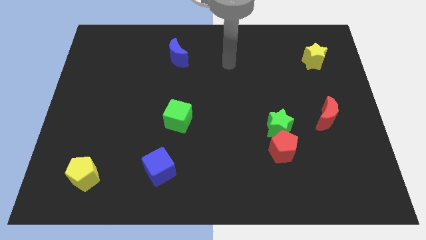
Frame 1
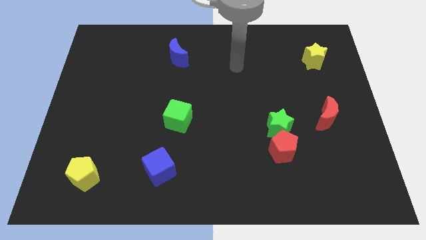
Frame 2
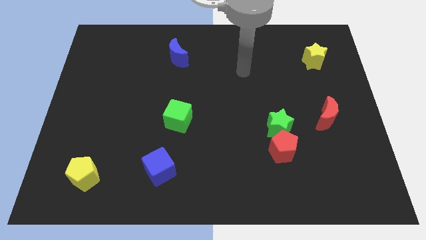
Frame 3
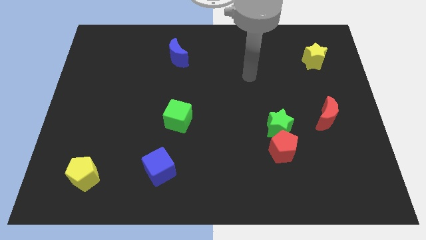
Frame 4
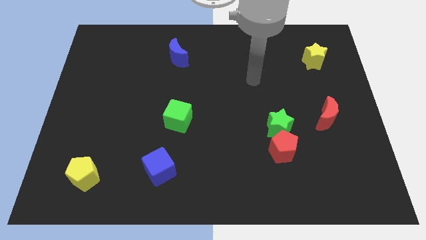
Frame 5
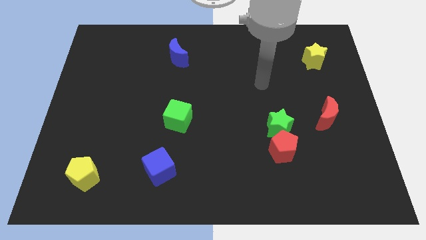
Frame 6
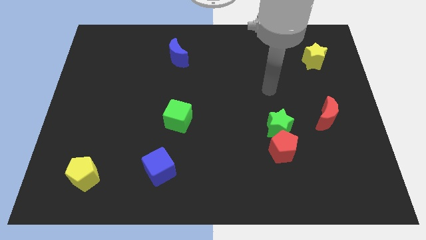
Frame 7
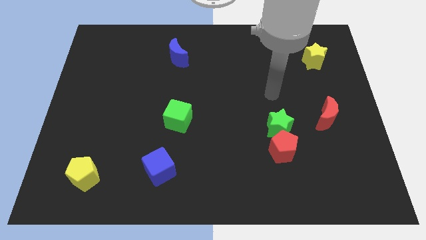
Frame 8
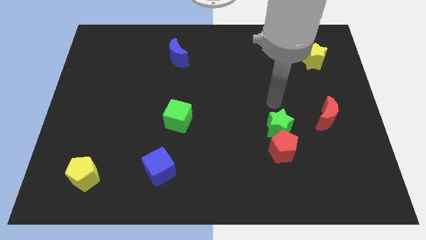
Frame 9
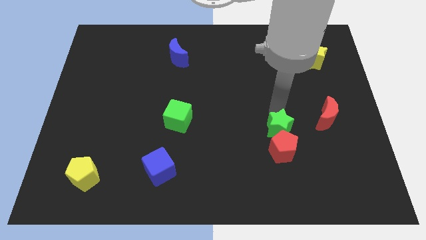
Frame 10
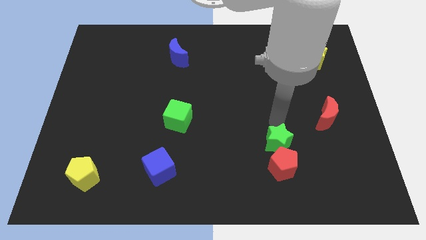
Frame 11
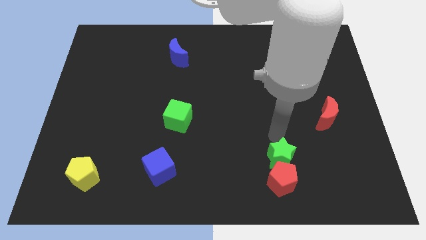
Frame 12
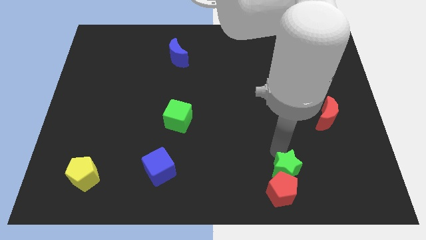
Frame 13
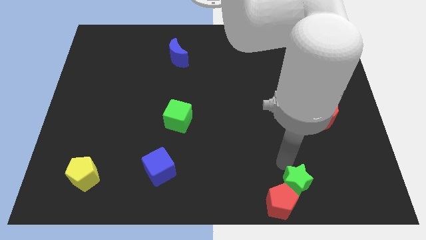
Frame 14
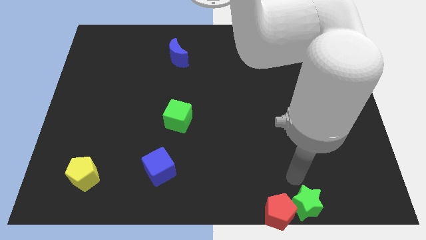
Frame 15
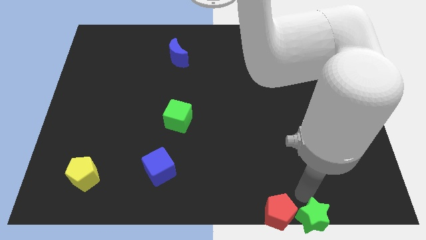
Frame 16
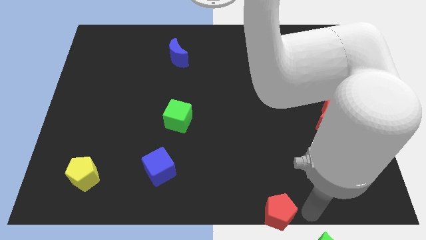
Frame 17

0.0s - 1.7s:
pull the red pentagon apart from the green star

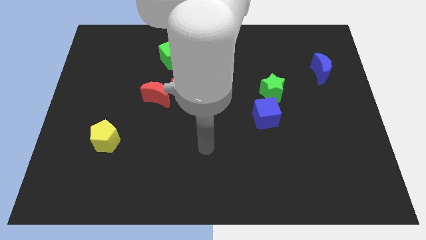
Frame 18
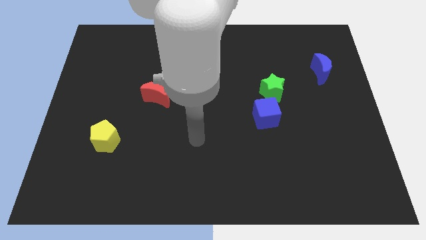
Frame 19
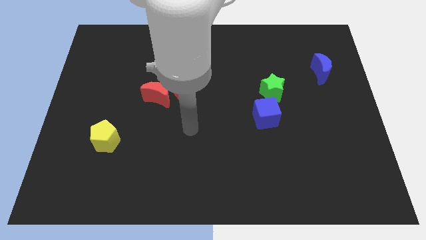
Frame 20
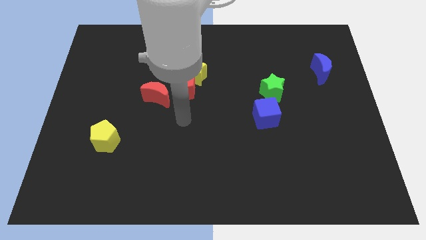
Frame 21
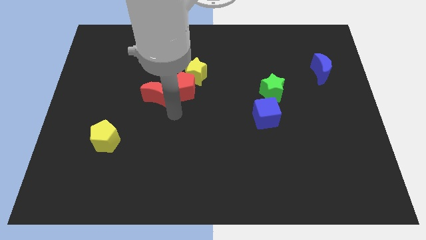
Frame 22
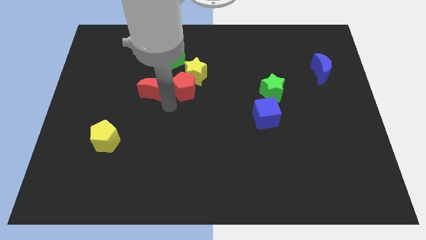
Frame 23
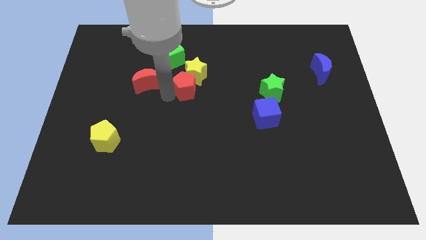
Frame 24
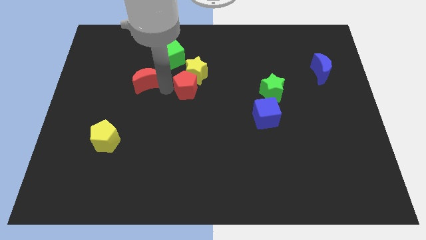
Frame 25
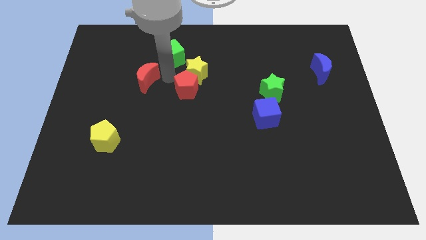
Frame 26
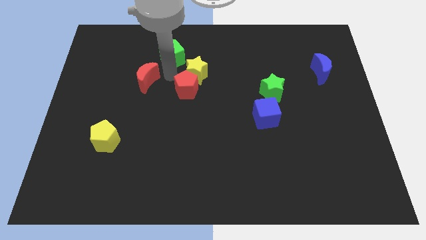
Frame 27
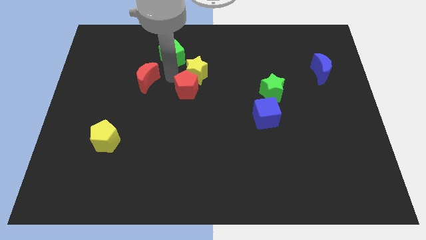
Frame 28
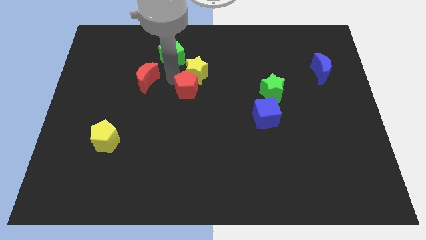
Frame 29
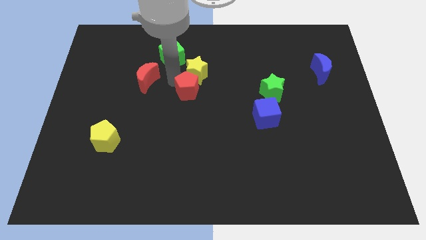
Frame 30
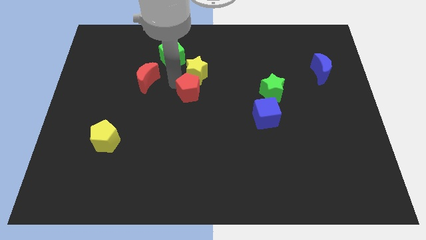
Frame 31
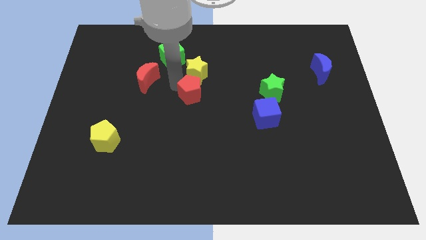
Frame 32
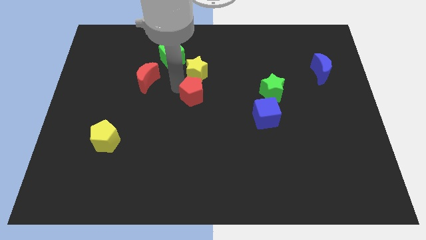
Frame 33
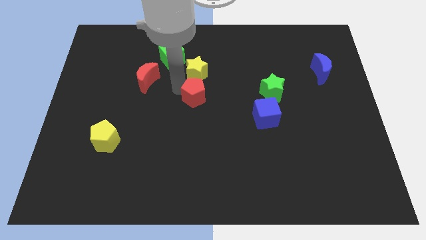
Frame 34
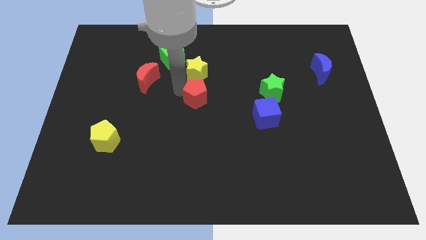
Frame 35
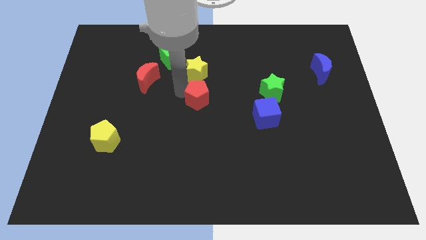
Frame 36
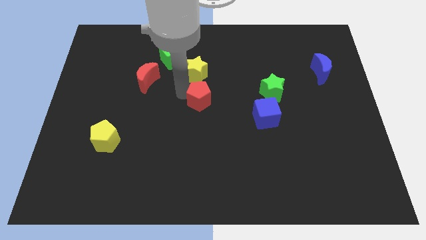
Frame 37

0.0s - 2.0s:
pull the red pentagon apart from the yellow star and red moon

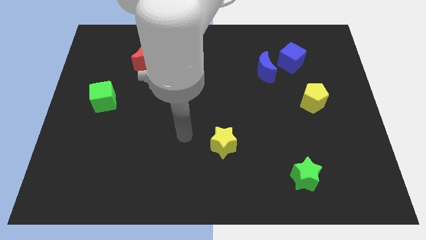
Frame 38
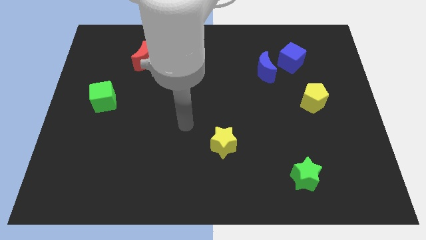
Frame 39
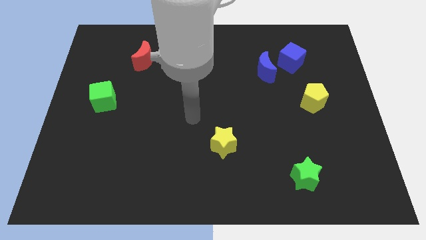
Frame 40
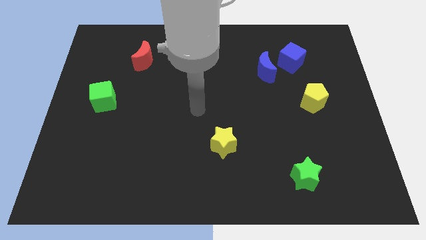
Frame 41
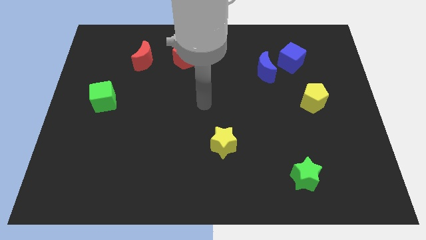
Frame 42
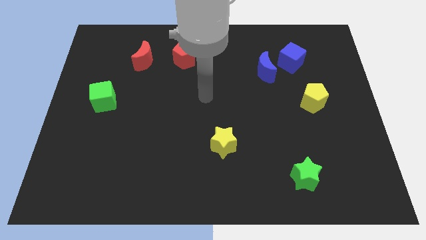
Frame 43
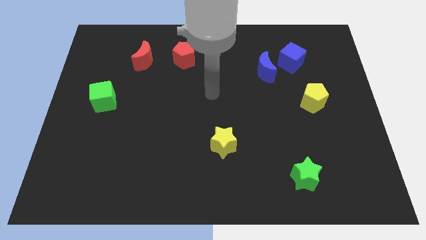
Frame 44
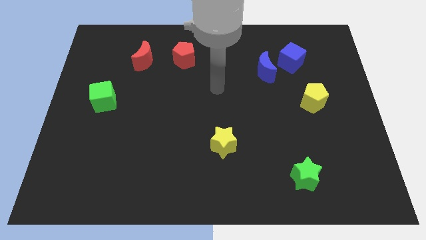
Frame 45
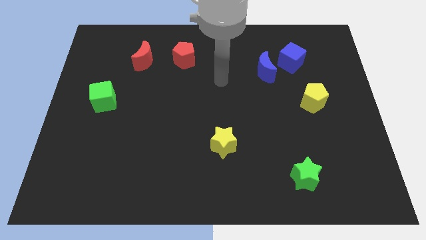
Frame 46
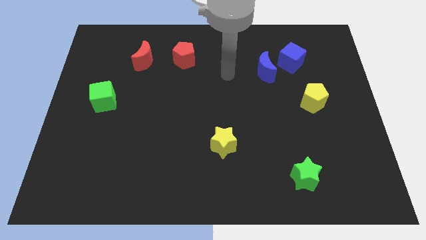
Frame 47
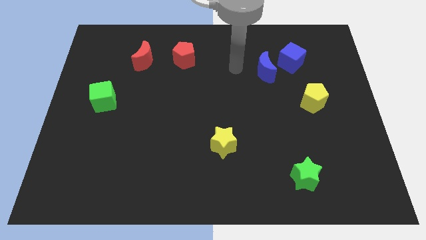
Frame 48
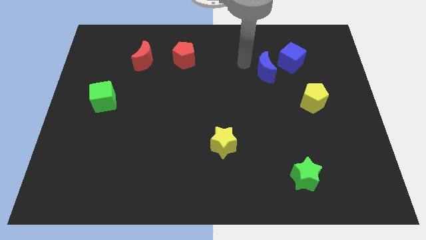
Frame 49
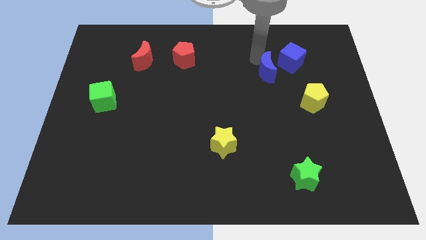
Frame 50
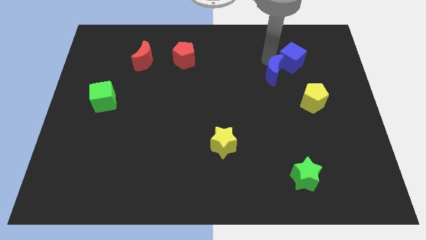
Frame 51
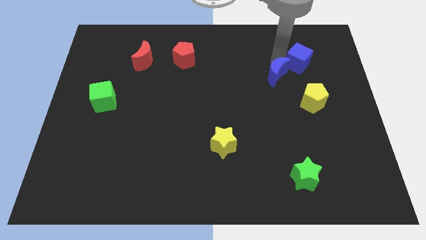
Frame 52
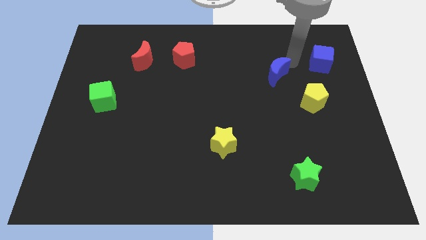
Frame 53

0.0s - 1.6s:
pull the blue moon apart from the blue cube

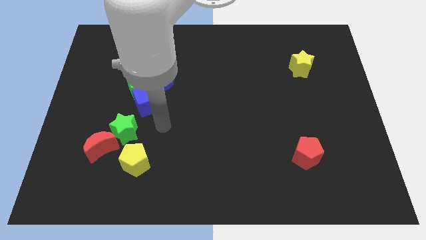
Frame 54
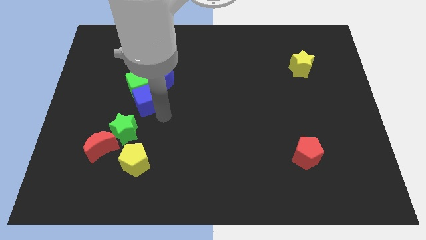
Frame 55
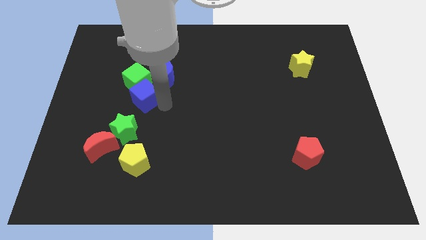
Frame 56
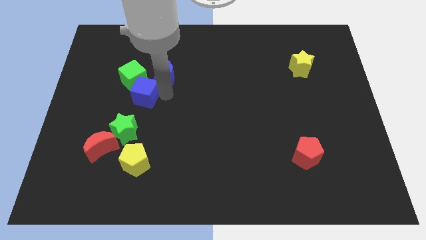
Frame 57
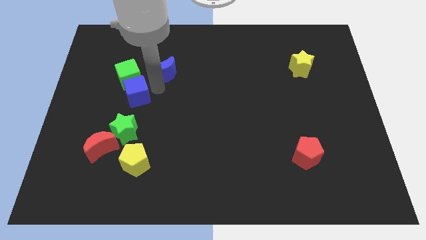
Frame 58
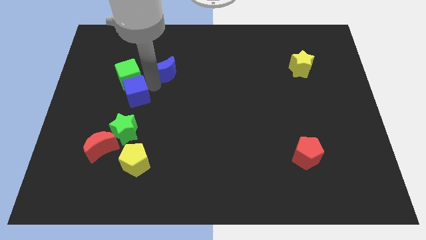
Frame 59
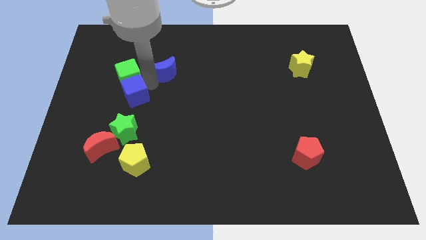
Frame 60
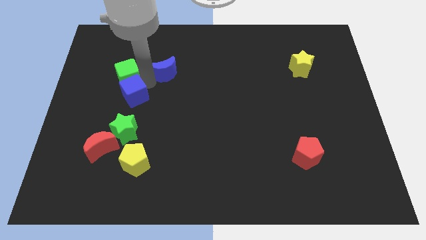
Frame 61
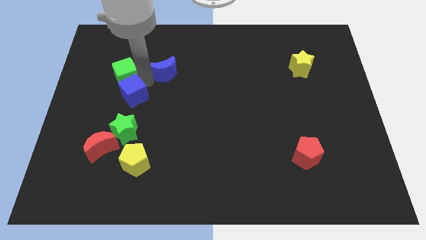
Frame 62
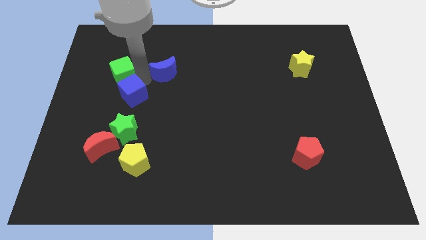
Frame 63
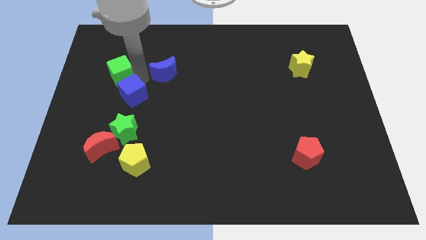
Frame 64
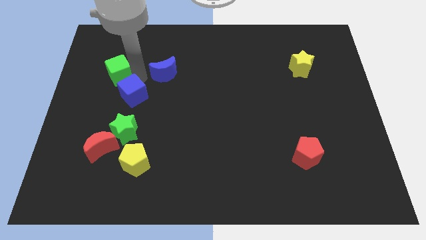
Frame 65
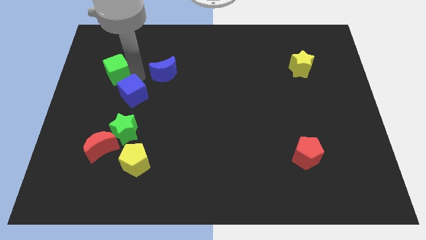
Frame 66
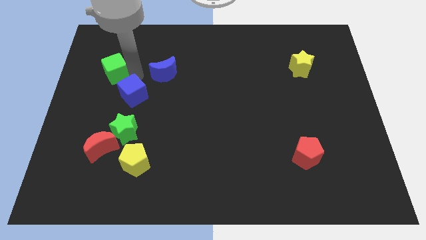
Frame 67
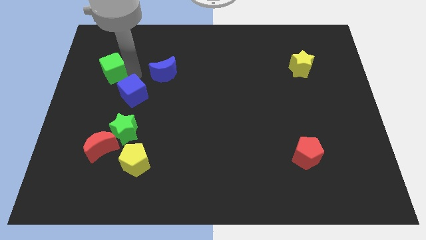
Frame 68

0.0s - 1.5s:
move the green cube away from the blue cube and blue moon

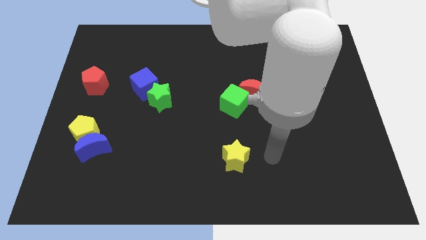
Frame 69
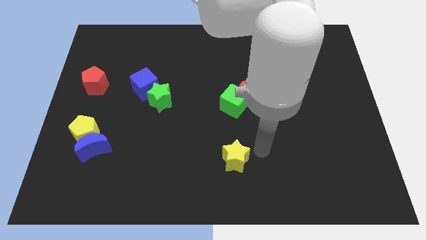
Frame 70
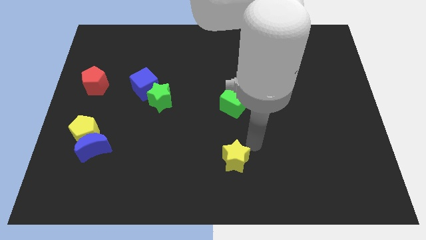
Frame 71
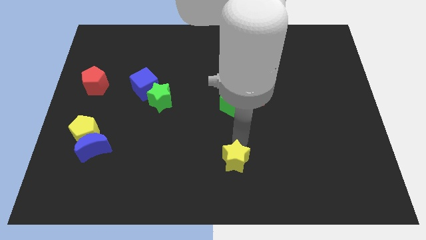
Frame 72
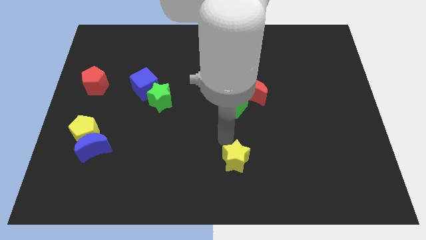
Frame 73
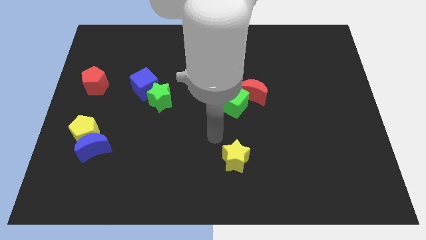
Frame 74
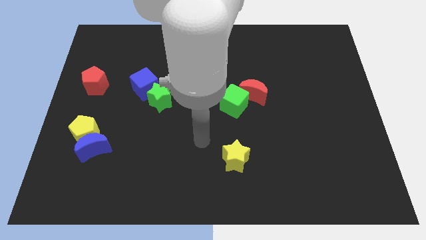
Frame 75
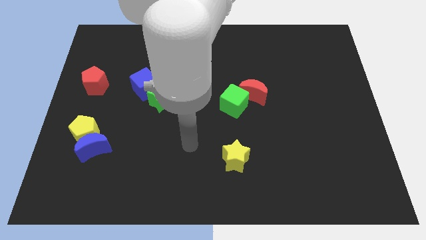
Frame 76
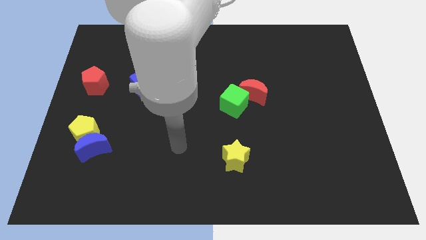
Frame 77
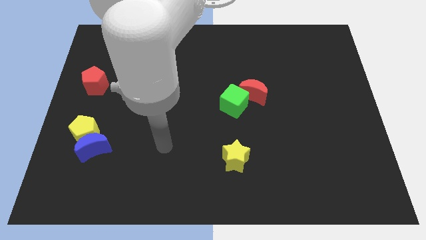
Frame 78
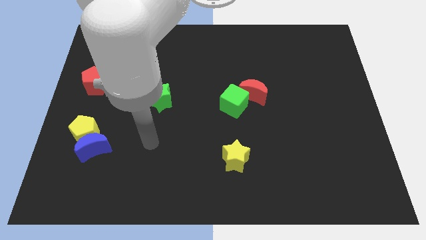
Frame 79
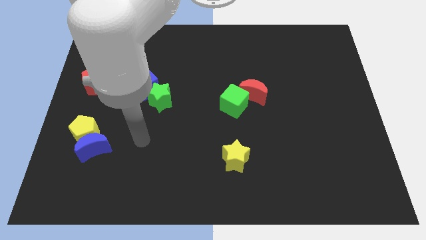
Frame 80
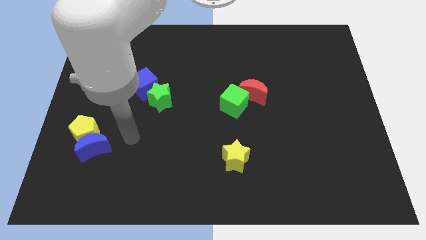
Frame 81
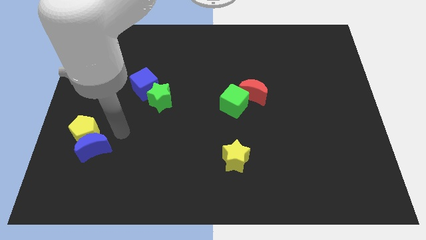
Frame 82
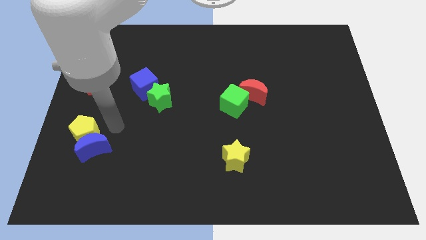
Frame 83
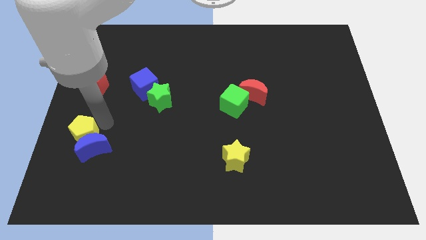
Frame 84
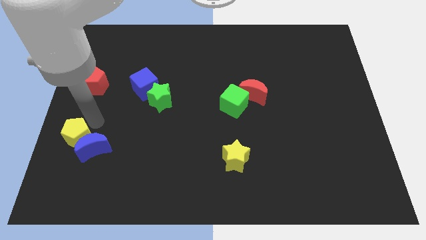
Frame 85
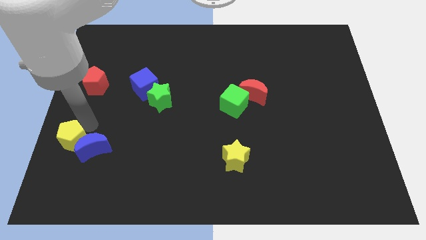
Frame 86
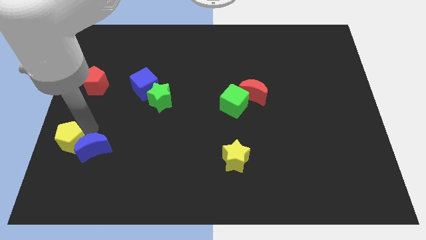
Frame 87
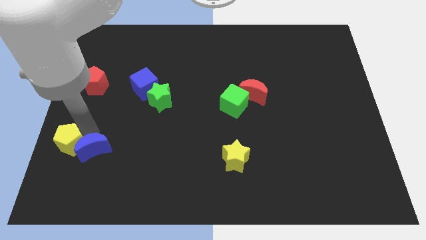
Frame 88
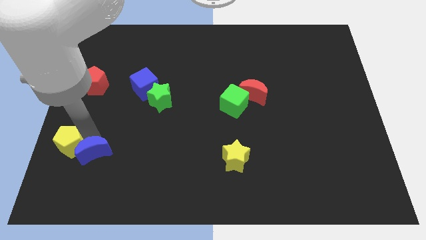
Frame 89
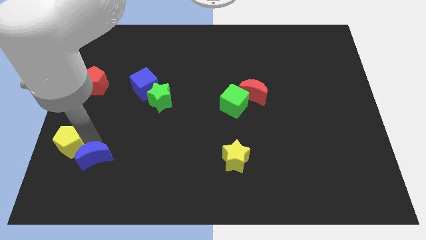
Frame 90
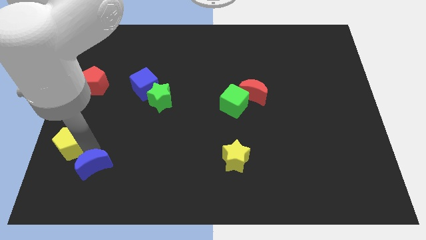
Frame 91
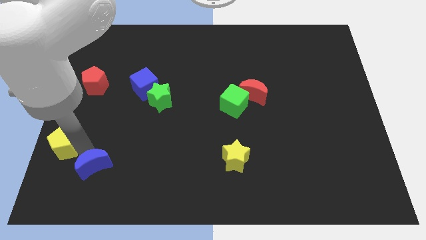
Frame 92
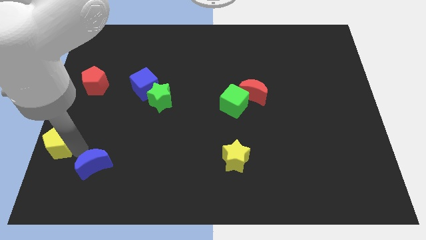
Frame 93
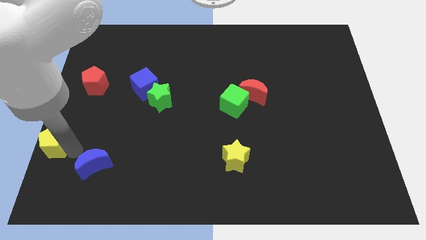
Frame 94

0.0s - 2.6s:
separate the blue moon from the yellow pentagon

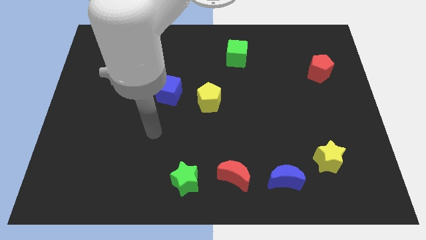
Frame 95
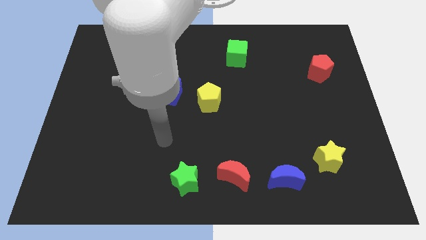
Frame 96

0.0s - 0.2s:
pull the green star apart from the red moon
